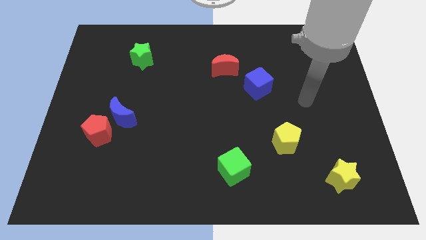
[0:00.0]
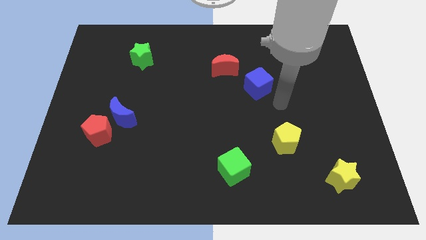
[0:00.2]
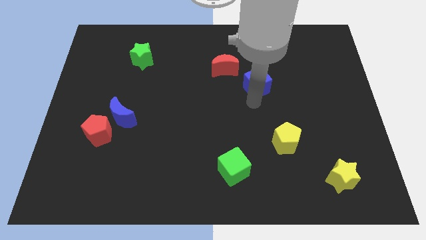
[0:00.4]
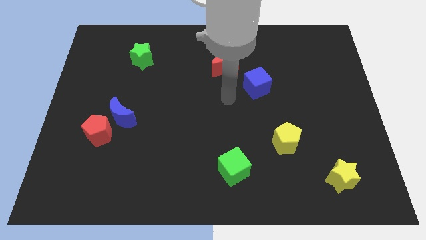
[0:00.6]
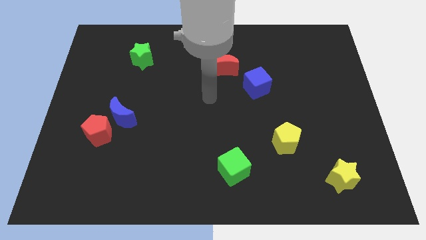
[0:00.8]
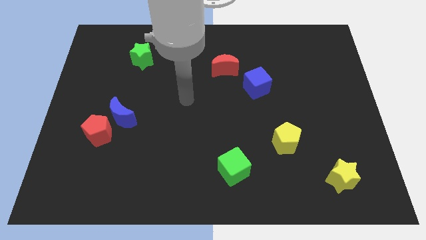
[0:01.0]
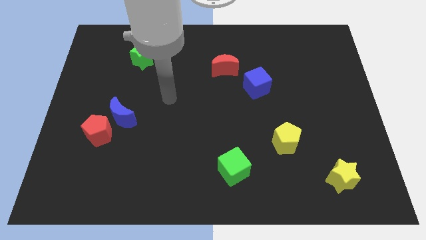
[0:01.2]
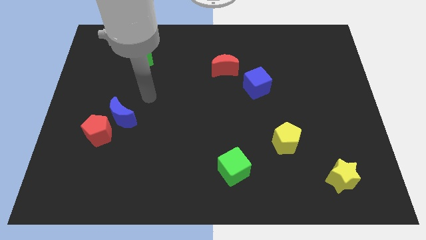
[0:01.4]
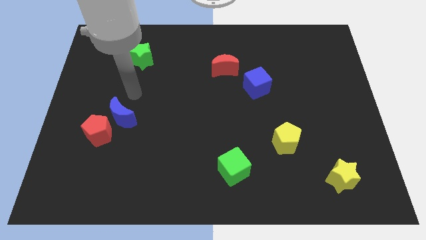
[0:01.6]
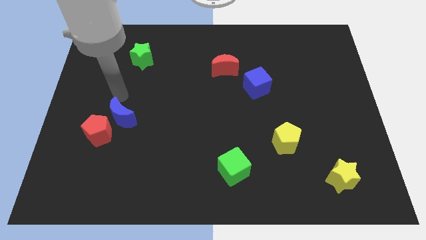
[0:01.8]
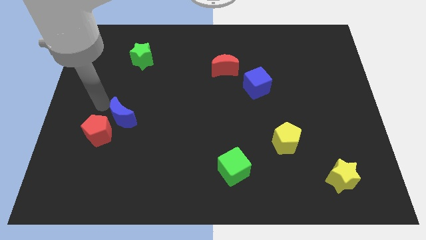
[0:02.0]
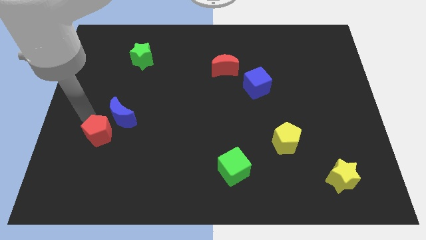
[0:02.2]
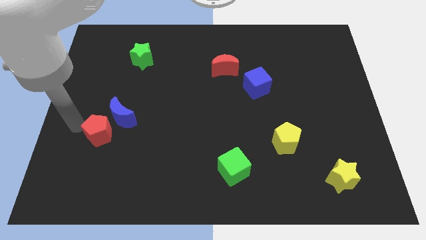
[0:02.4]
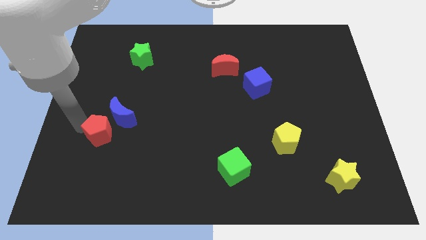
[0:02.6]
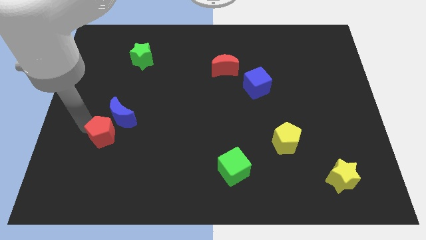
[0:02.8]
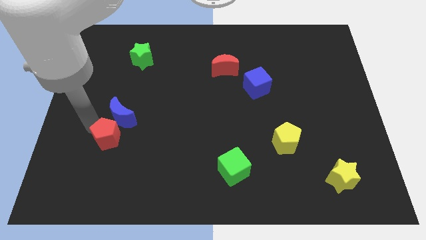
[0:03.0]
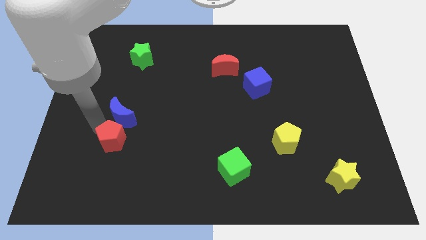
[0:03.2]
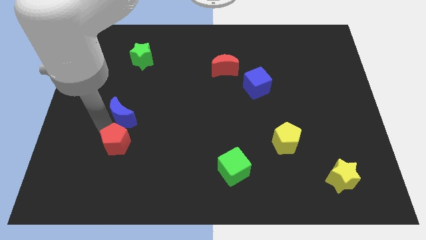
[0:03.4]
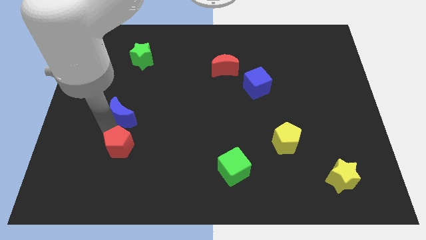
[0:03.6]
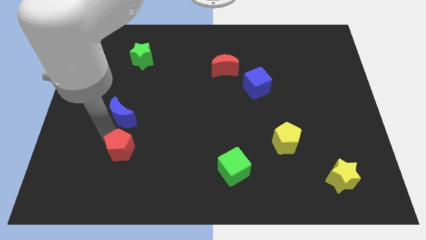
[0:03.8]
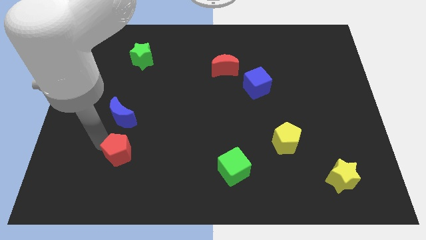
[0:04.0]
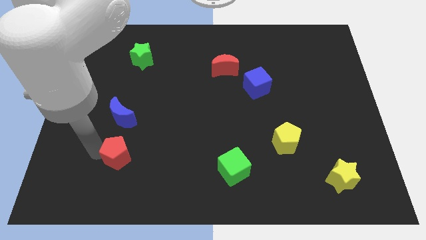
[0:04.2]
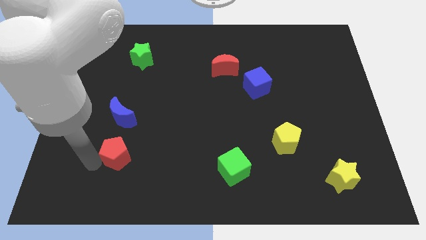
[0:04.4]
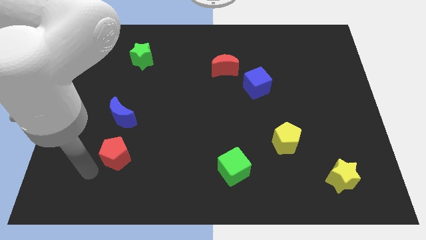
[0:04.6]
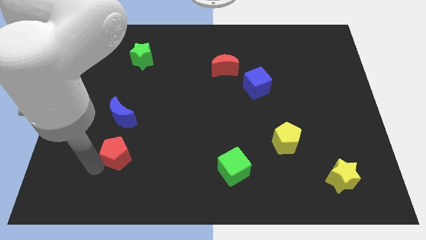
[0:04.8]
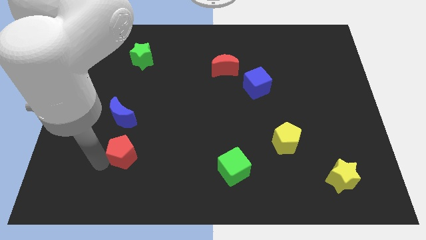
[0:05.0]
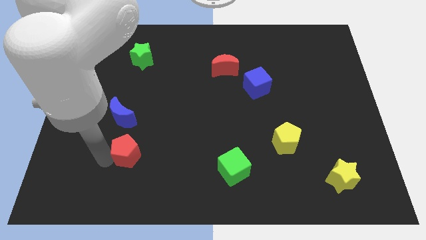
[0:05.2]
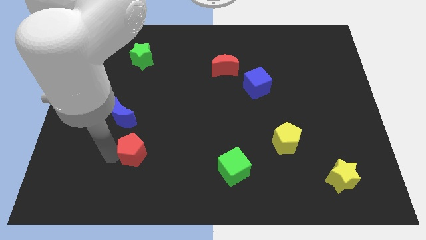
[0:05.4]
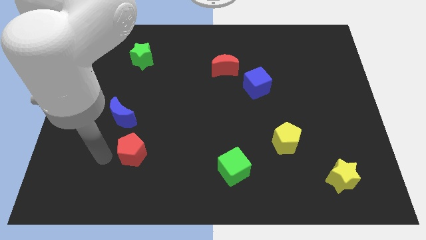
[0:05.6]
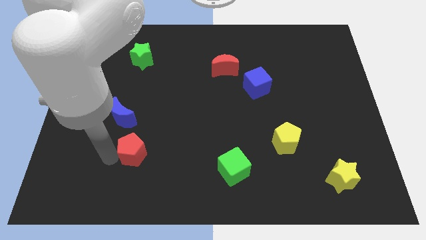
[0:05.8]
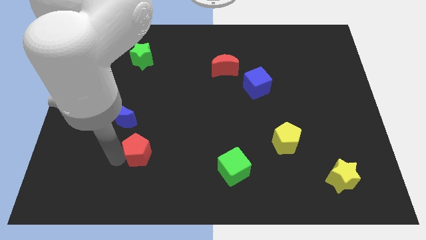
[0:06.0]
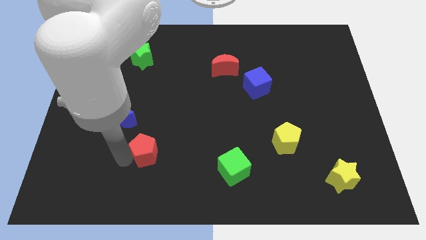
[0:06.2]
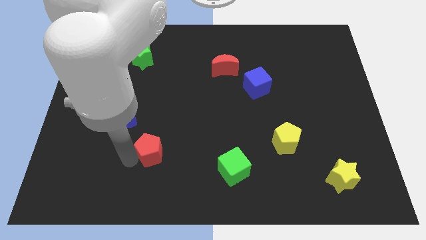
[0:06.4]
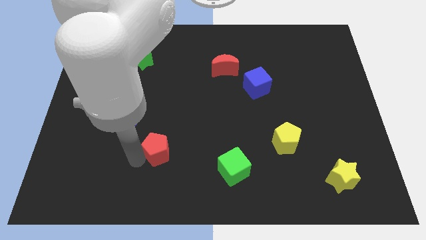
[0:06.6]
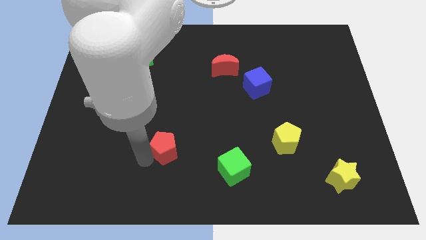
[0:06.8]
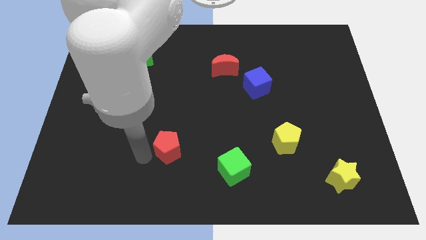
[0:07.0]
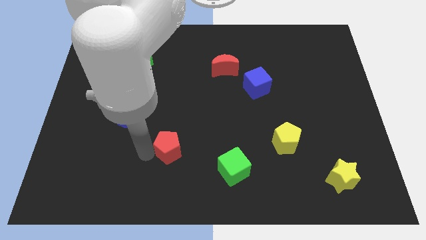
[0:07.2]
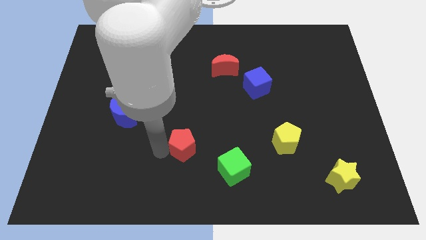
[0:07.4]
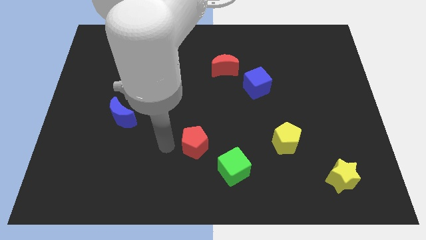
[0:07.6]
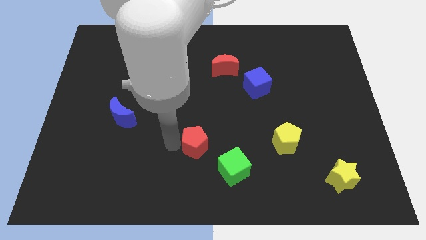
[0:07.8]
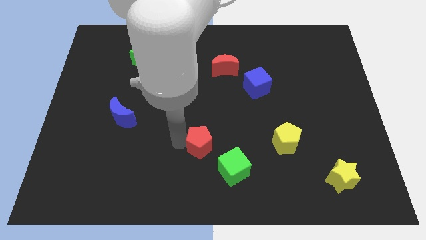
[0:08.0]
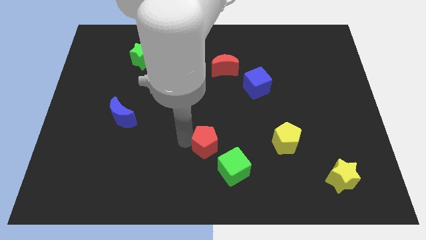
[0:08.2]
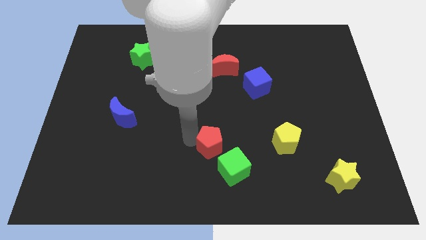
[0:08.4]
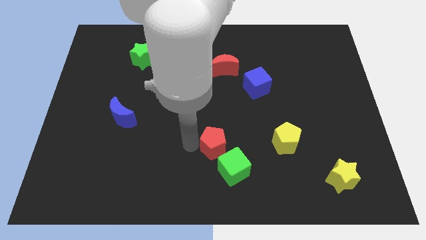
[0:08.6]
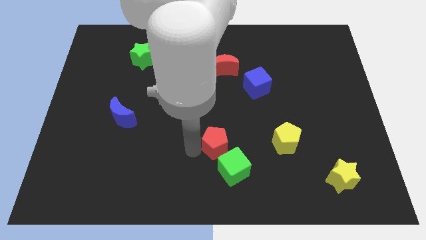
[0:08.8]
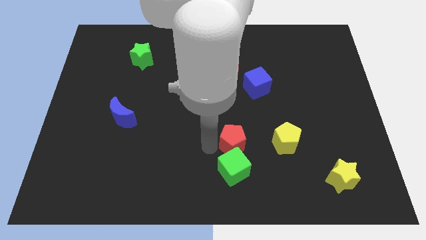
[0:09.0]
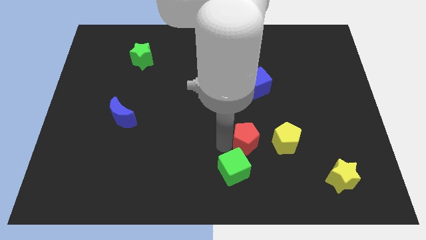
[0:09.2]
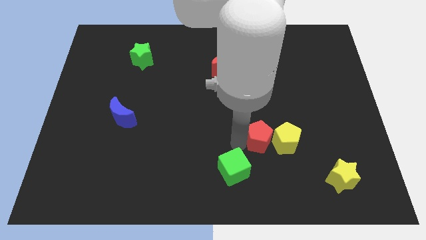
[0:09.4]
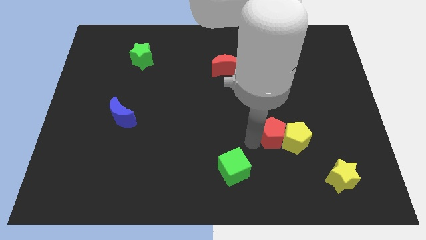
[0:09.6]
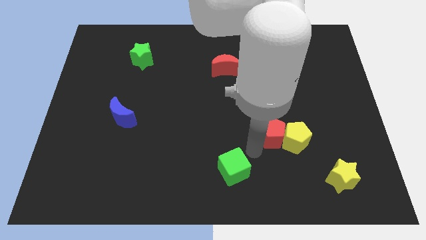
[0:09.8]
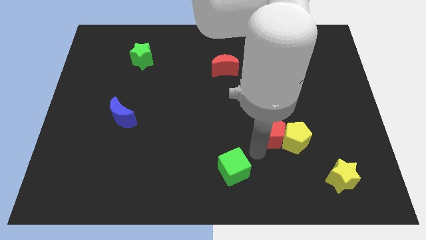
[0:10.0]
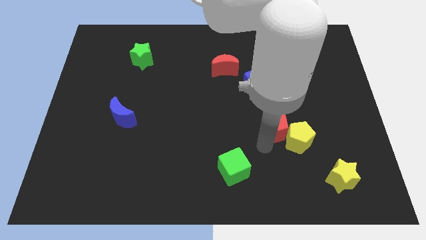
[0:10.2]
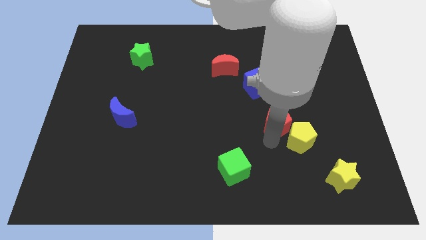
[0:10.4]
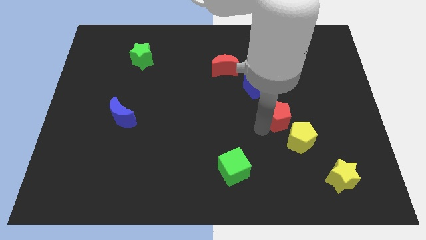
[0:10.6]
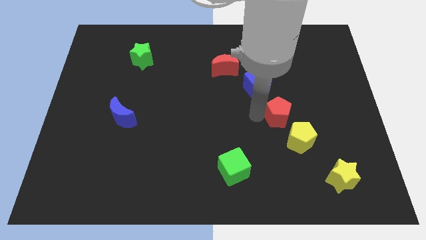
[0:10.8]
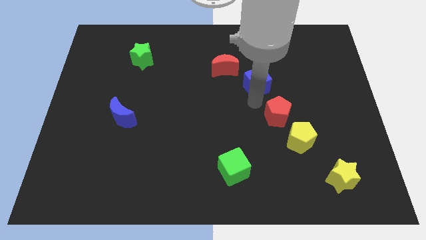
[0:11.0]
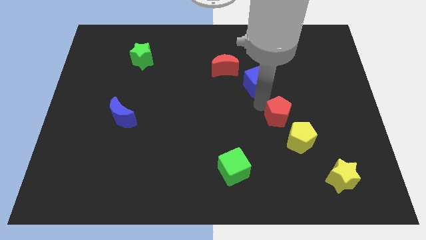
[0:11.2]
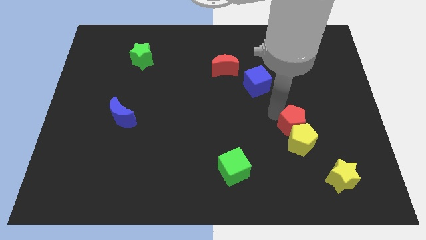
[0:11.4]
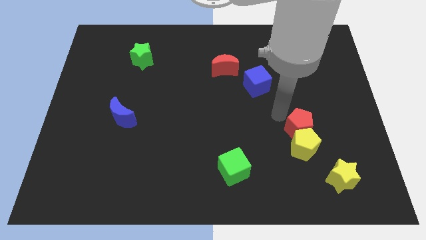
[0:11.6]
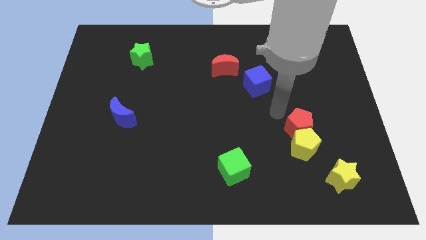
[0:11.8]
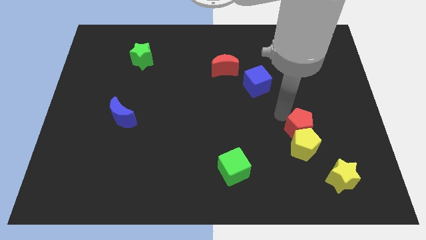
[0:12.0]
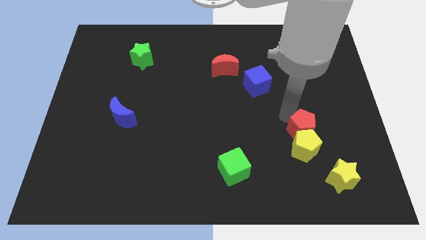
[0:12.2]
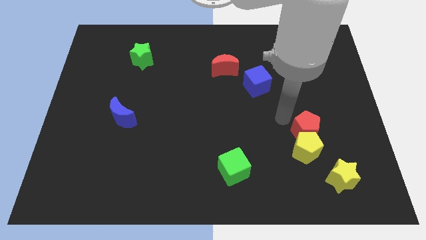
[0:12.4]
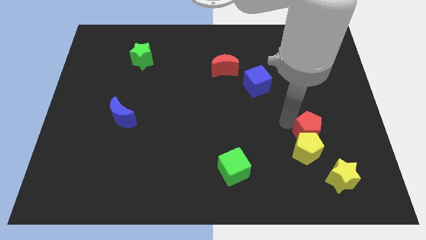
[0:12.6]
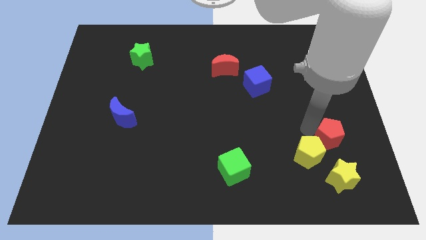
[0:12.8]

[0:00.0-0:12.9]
push the red pentagon to the right of the yellow pentagon

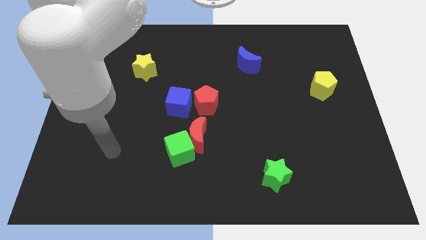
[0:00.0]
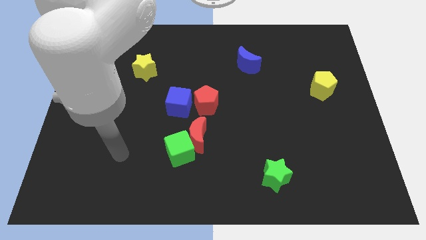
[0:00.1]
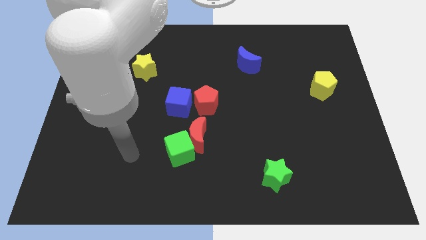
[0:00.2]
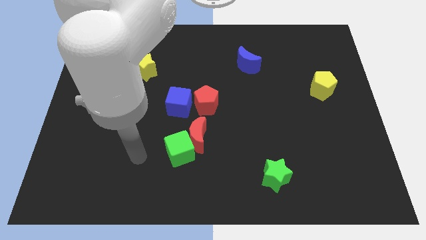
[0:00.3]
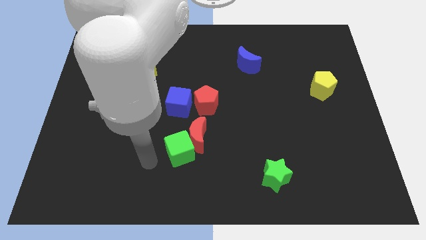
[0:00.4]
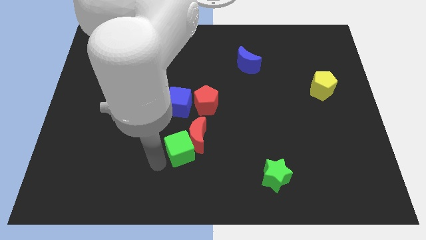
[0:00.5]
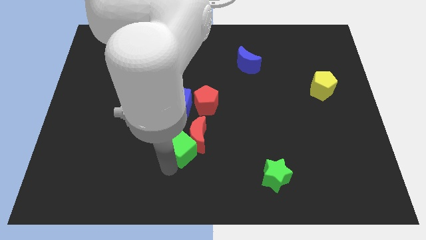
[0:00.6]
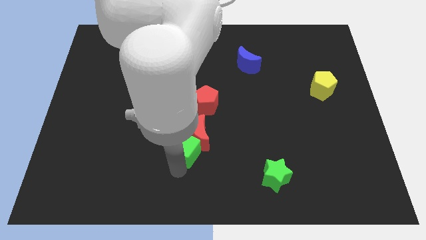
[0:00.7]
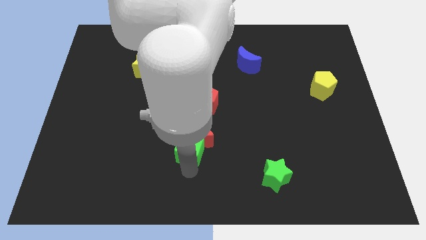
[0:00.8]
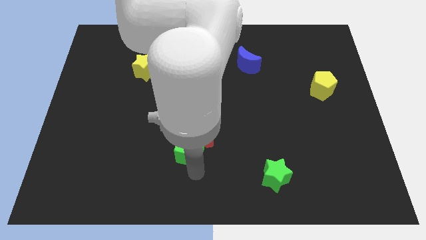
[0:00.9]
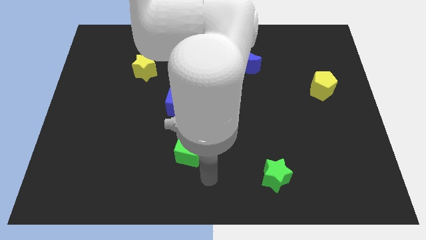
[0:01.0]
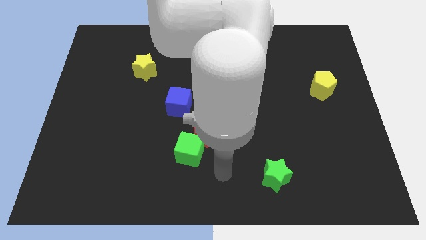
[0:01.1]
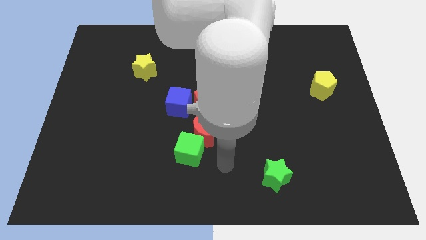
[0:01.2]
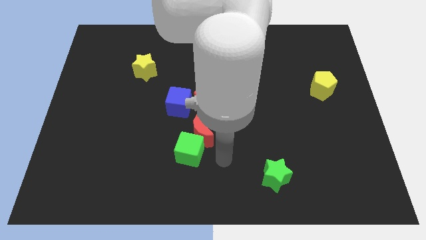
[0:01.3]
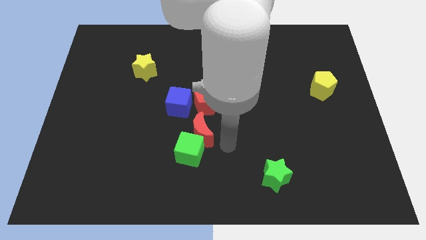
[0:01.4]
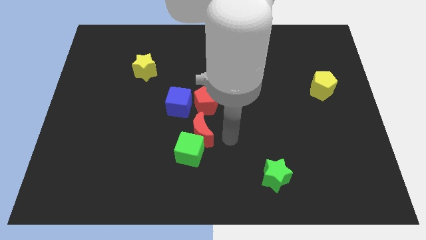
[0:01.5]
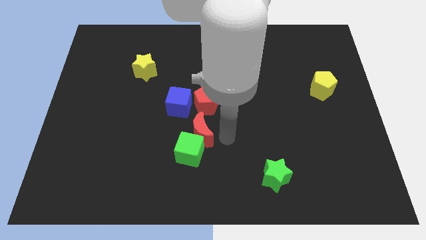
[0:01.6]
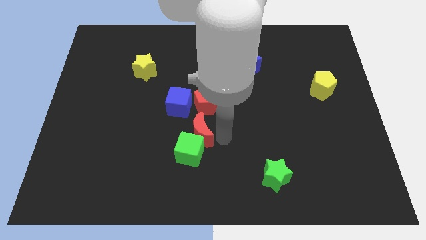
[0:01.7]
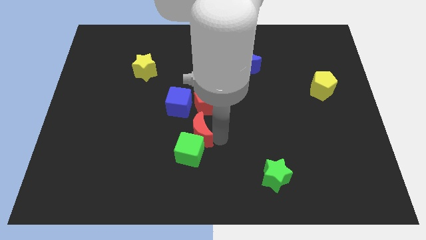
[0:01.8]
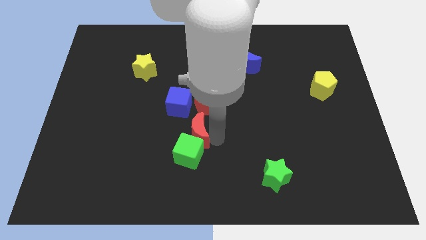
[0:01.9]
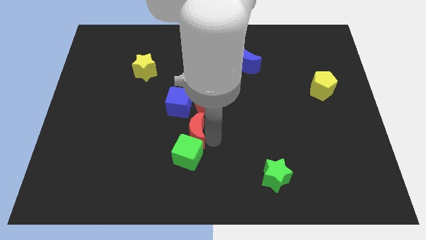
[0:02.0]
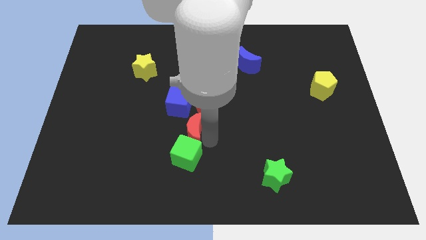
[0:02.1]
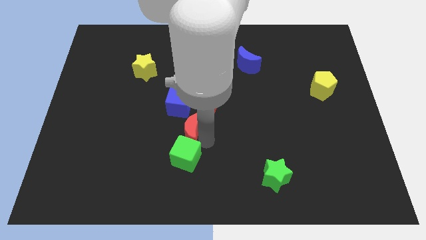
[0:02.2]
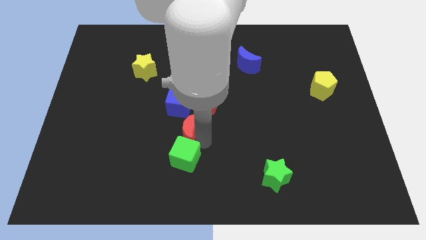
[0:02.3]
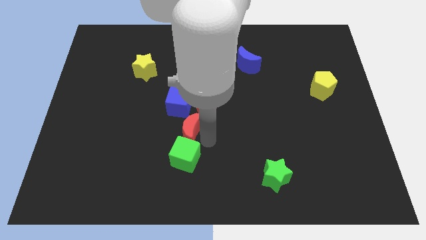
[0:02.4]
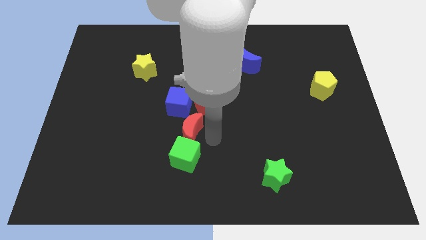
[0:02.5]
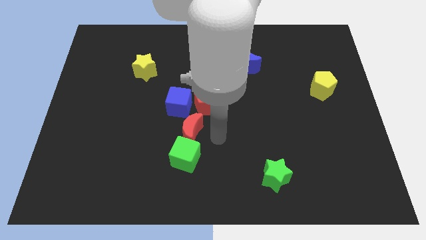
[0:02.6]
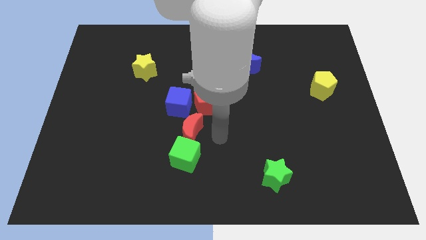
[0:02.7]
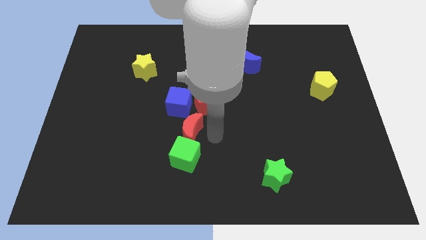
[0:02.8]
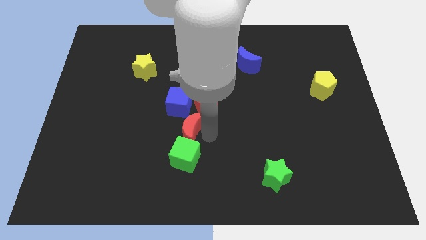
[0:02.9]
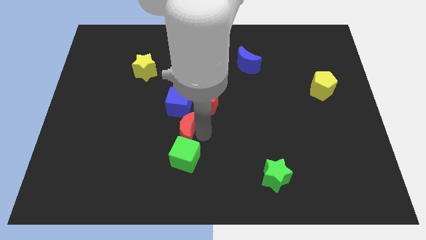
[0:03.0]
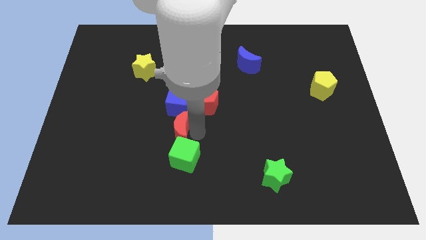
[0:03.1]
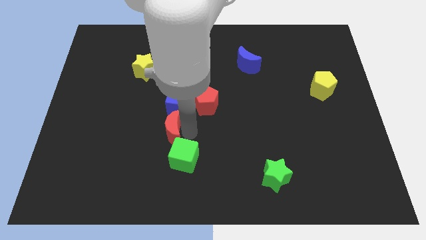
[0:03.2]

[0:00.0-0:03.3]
put the red moon to the bottom left side of the blue cube
